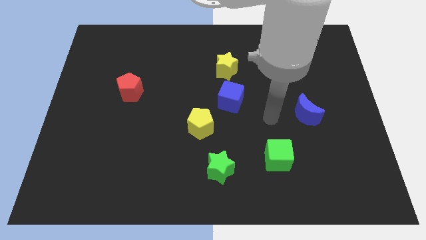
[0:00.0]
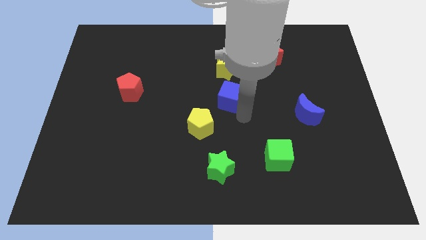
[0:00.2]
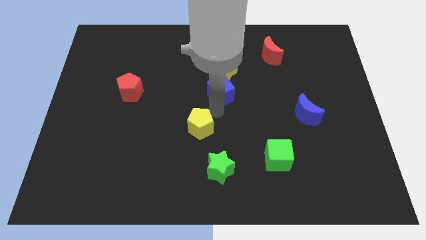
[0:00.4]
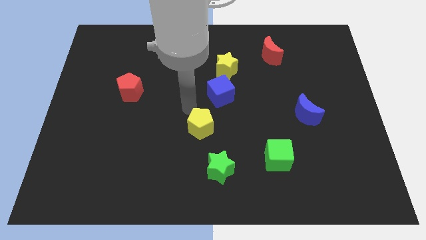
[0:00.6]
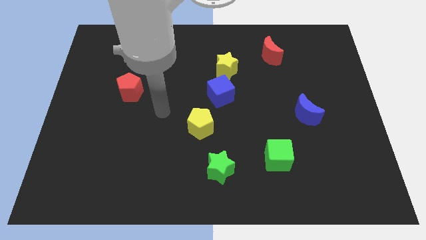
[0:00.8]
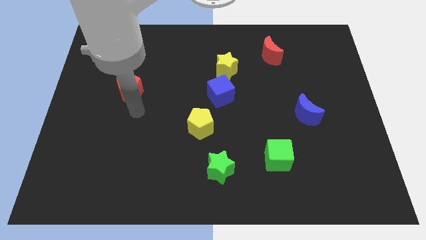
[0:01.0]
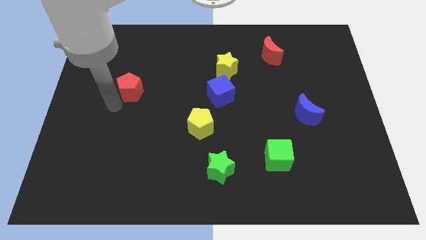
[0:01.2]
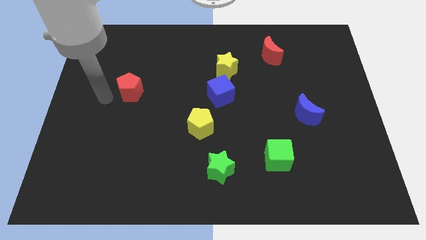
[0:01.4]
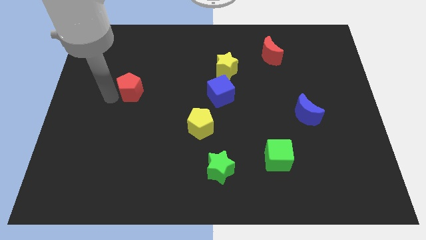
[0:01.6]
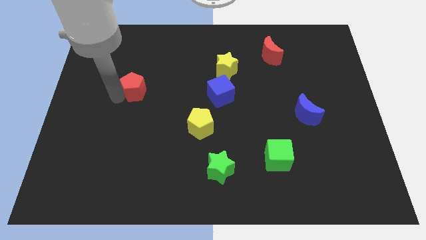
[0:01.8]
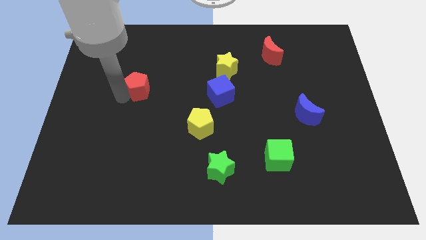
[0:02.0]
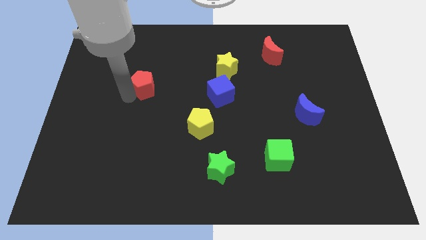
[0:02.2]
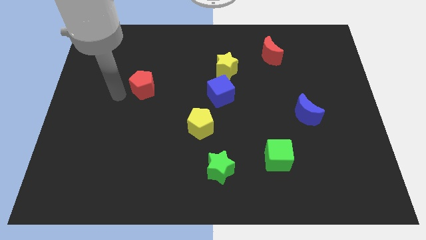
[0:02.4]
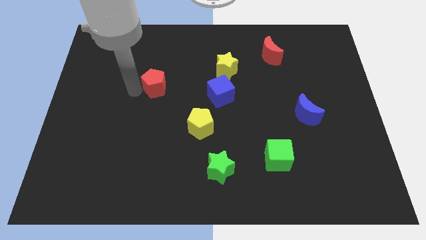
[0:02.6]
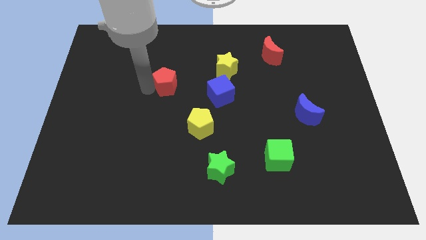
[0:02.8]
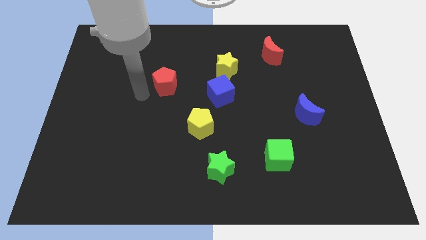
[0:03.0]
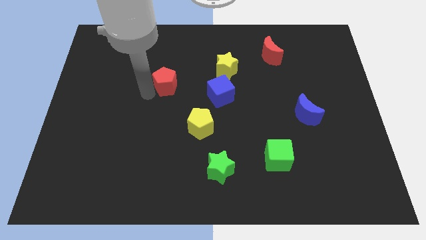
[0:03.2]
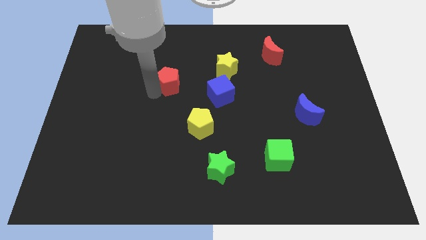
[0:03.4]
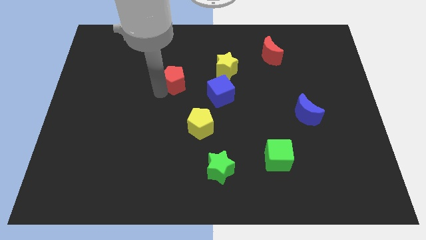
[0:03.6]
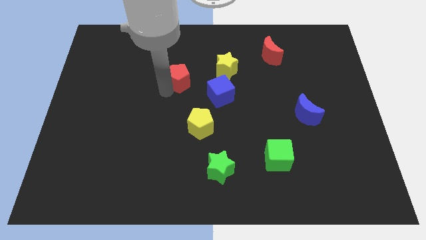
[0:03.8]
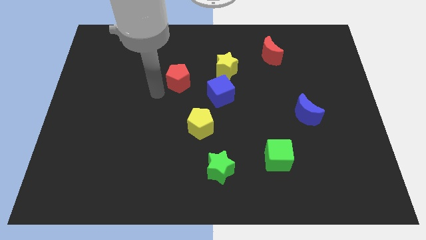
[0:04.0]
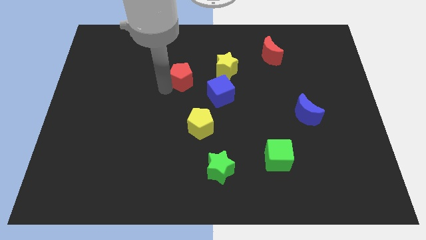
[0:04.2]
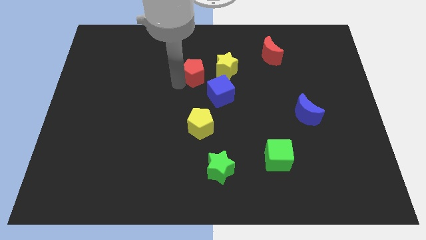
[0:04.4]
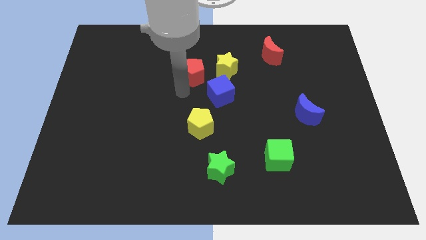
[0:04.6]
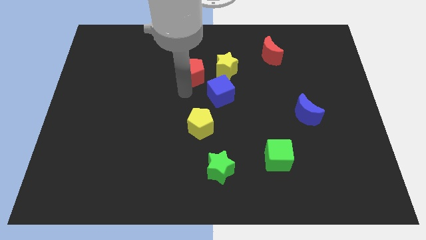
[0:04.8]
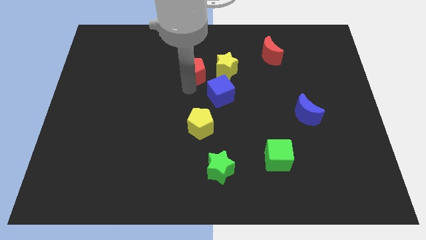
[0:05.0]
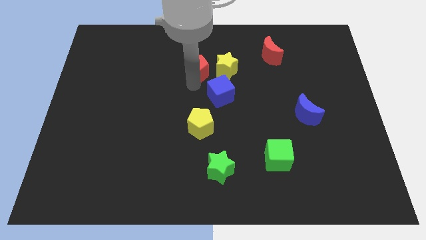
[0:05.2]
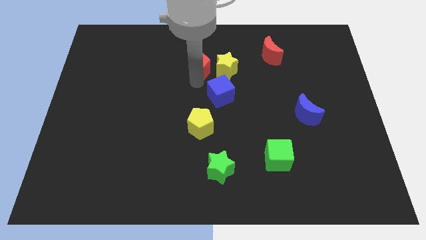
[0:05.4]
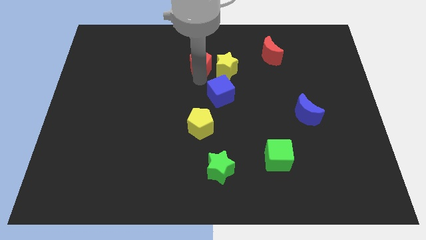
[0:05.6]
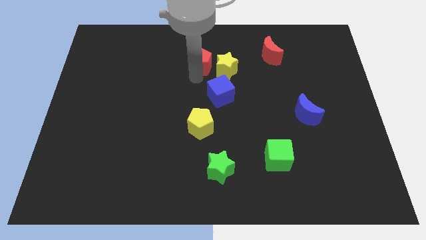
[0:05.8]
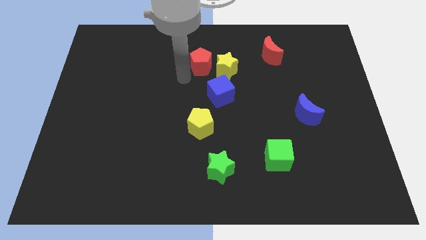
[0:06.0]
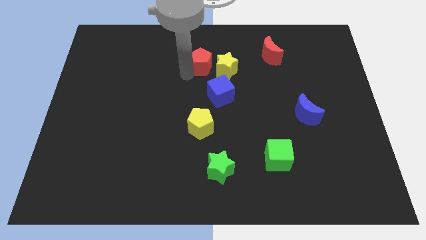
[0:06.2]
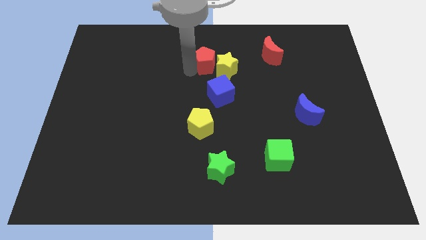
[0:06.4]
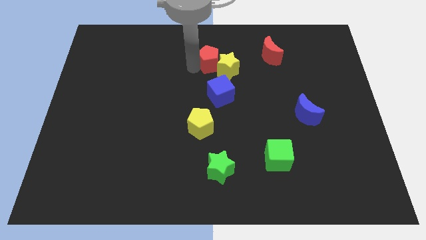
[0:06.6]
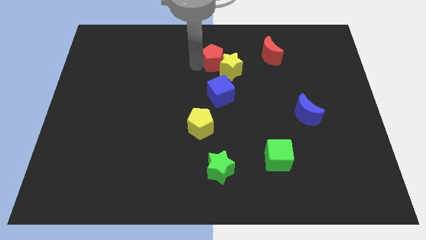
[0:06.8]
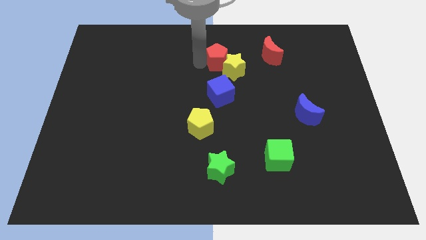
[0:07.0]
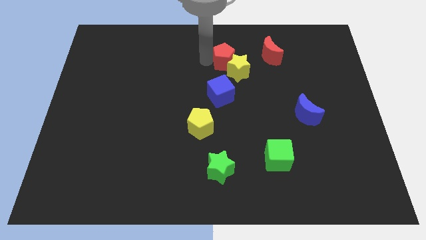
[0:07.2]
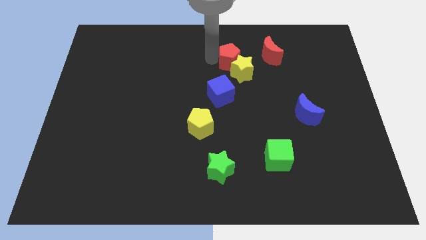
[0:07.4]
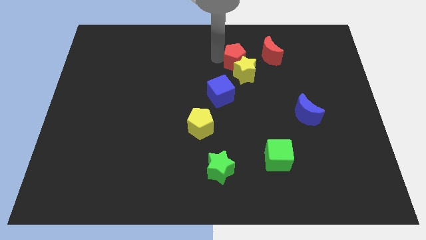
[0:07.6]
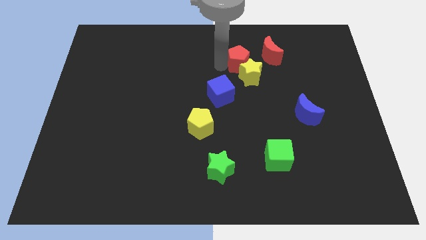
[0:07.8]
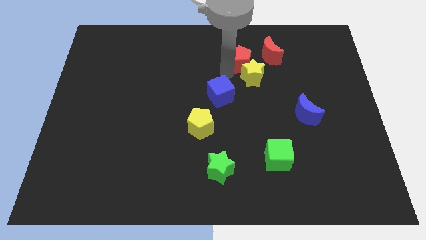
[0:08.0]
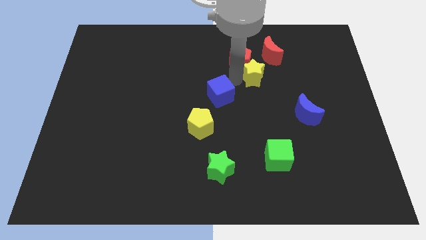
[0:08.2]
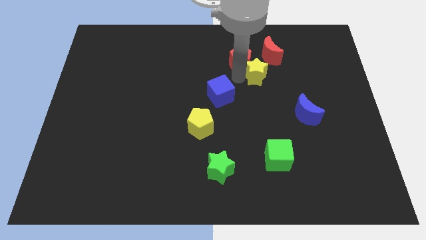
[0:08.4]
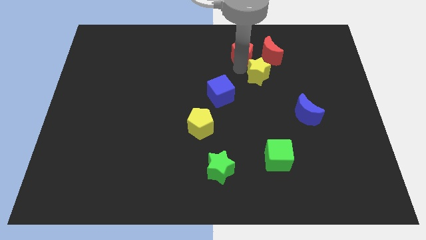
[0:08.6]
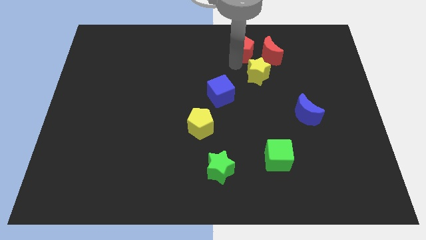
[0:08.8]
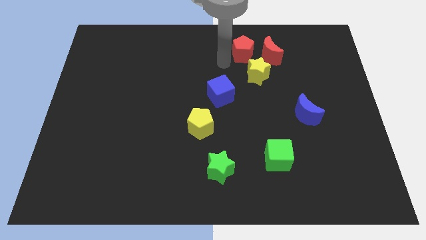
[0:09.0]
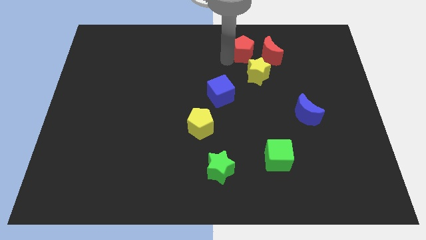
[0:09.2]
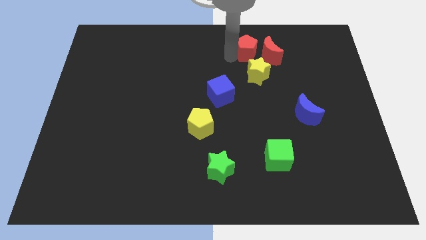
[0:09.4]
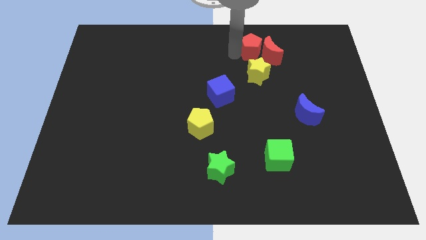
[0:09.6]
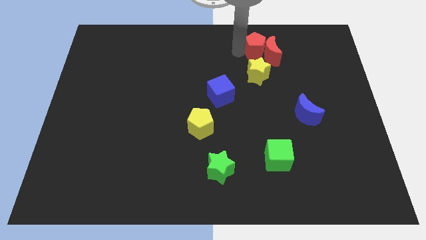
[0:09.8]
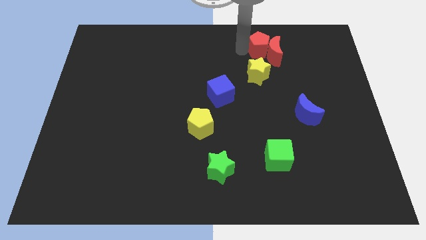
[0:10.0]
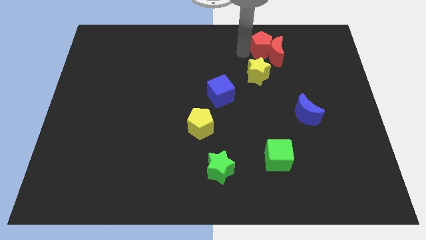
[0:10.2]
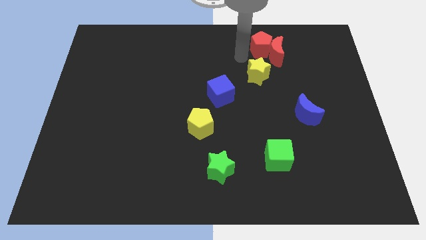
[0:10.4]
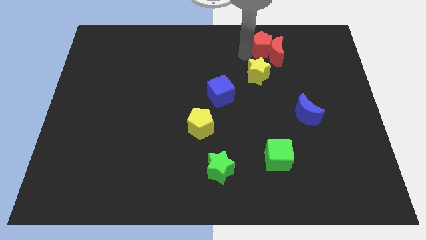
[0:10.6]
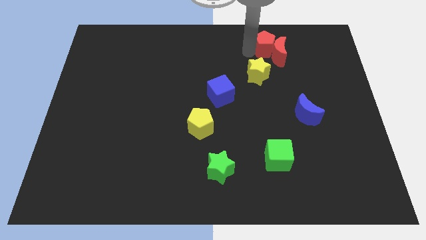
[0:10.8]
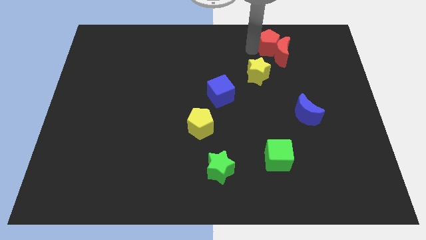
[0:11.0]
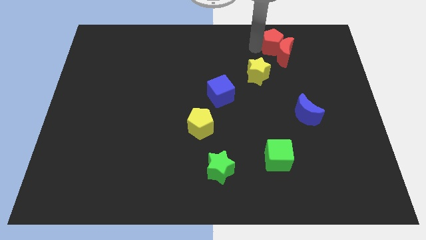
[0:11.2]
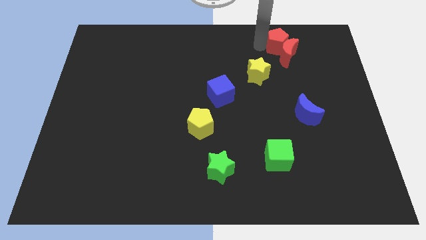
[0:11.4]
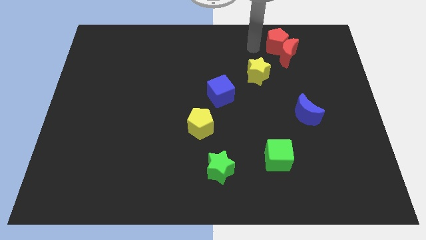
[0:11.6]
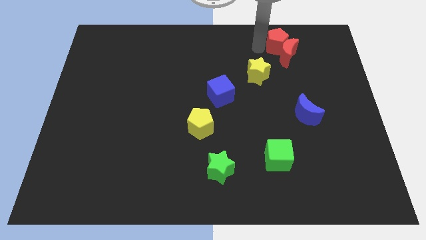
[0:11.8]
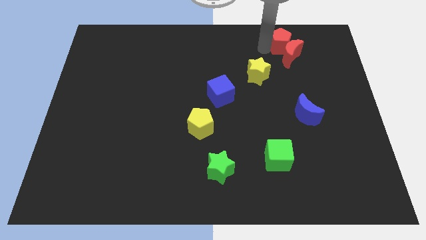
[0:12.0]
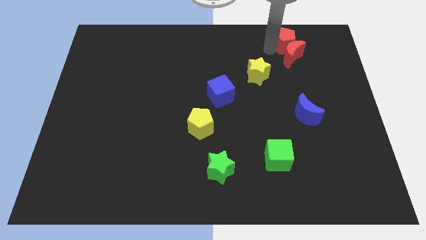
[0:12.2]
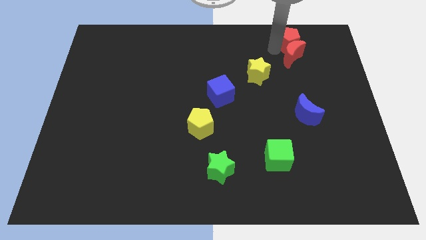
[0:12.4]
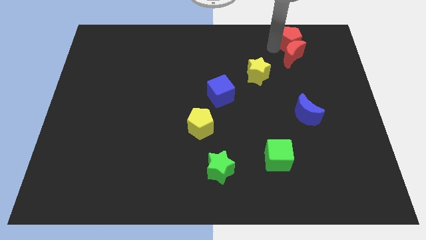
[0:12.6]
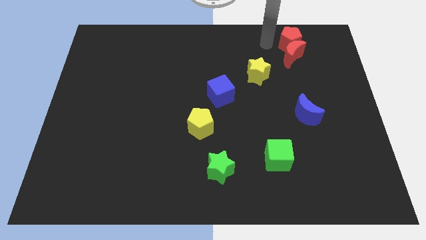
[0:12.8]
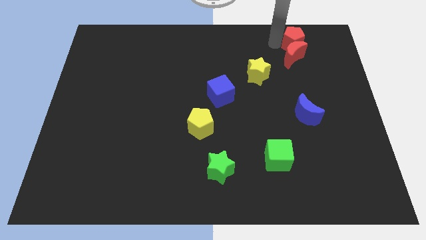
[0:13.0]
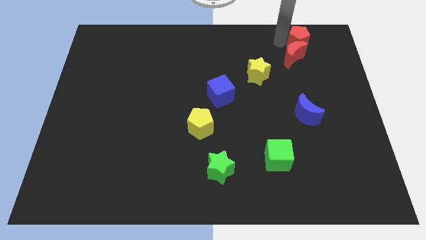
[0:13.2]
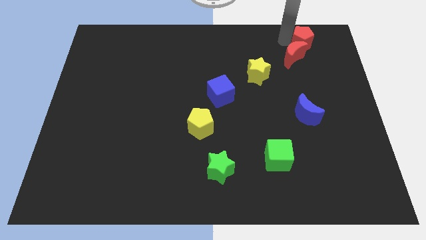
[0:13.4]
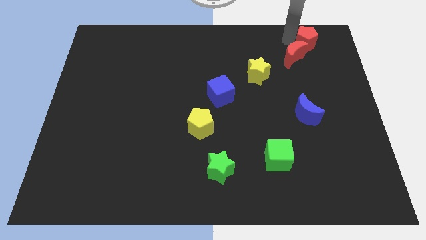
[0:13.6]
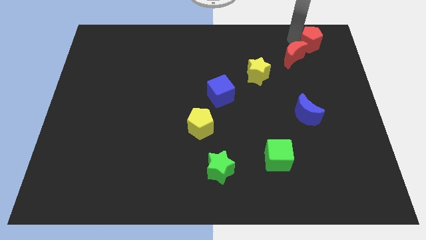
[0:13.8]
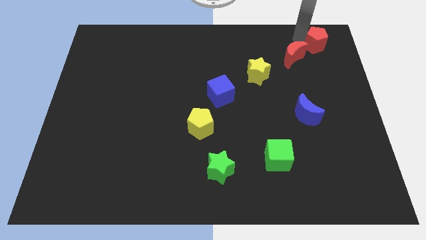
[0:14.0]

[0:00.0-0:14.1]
slide the red pentagon to the top right corner
